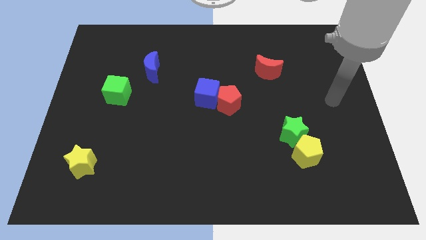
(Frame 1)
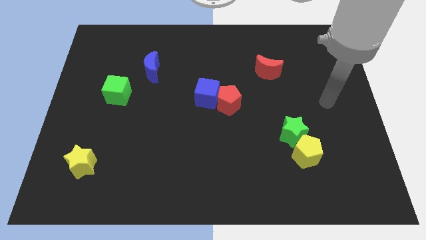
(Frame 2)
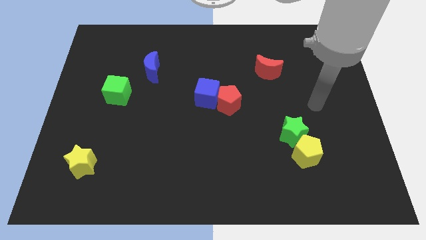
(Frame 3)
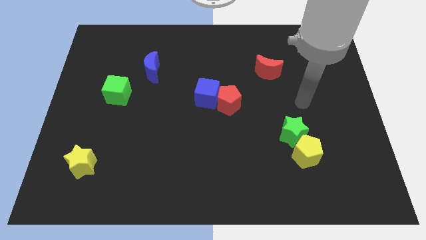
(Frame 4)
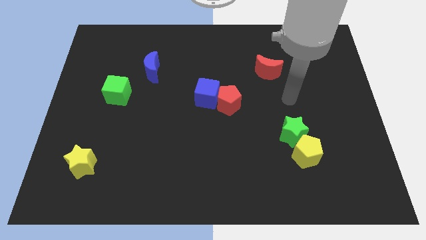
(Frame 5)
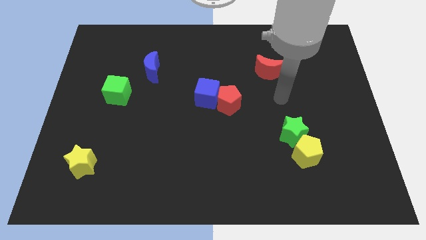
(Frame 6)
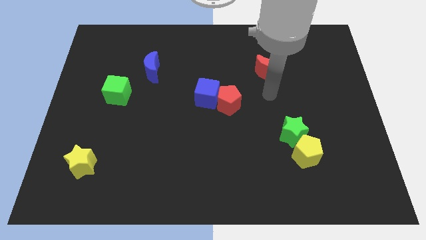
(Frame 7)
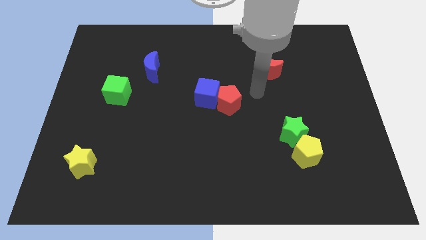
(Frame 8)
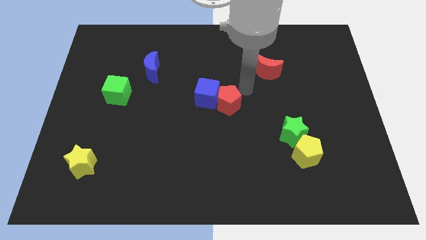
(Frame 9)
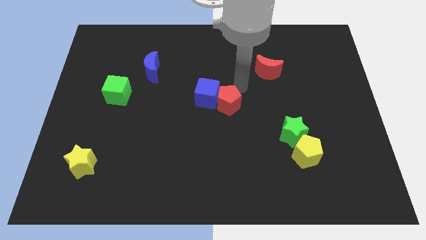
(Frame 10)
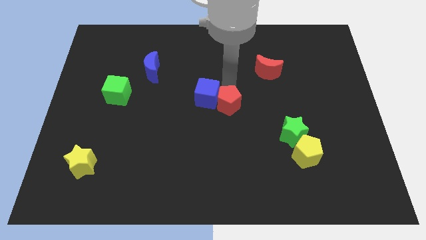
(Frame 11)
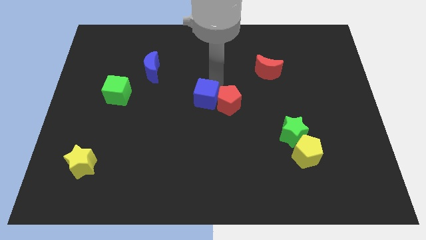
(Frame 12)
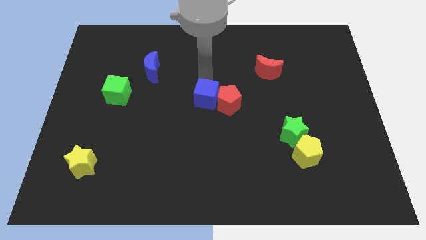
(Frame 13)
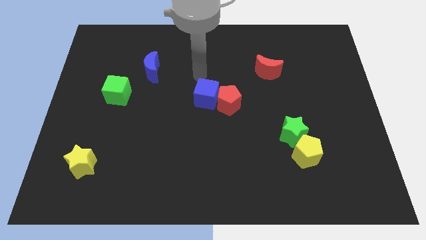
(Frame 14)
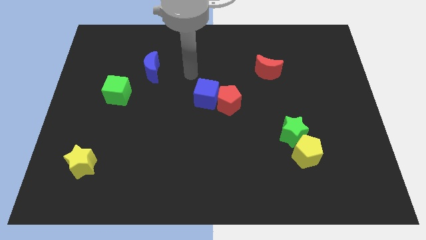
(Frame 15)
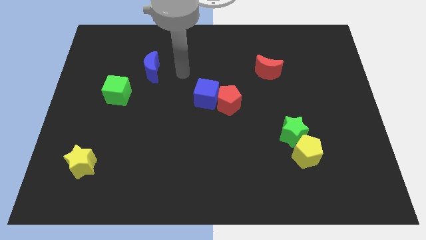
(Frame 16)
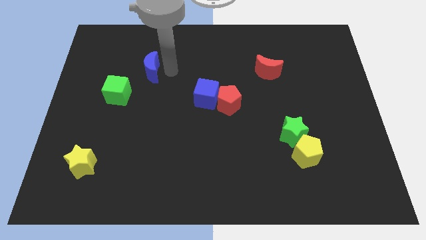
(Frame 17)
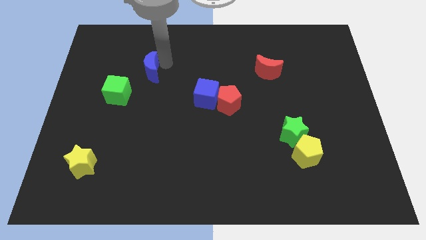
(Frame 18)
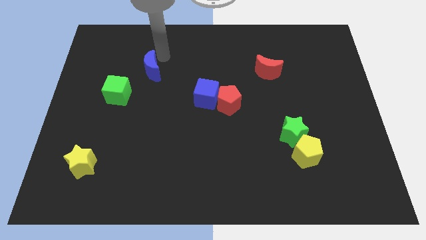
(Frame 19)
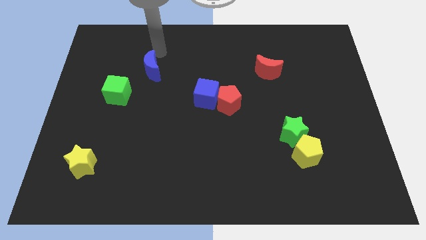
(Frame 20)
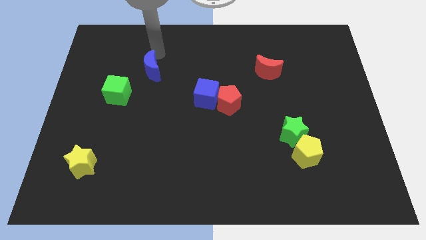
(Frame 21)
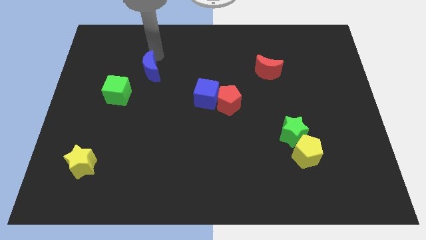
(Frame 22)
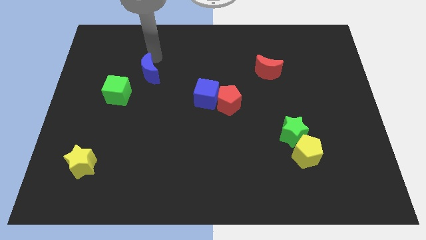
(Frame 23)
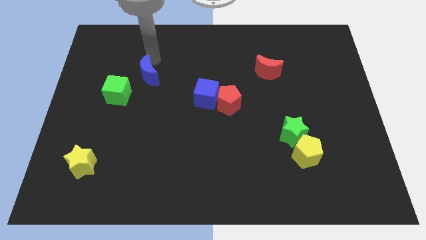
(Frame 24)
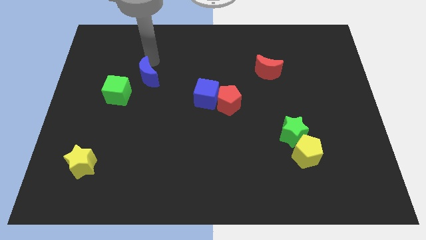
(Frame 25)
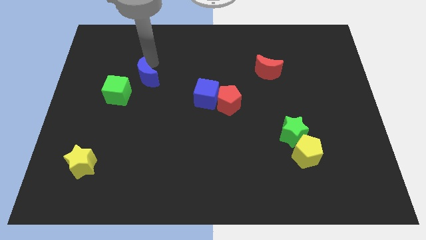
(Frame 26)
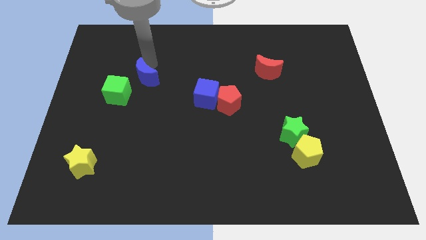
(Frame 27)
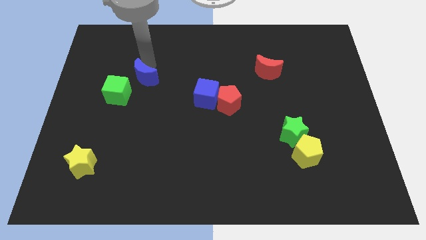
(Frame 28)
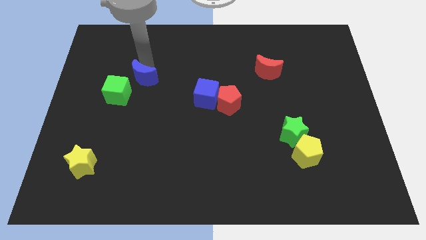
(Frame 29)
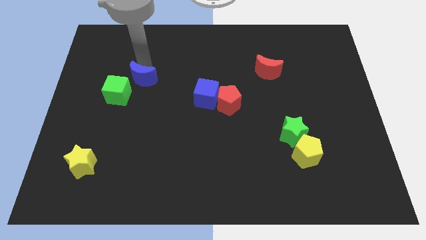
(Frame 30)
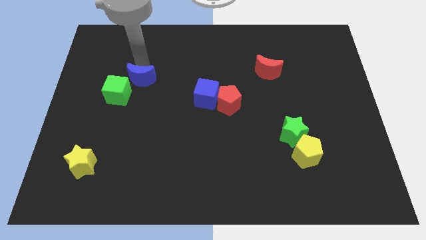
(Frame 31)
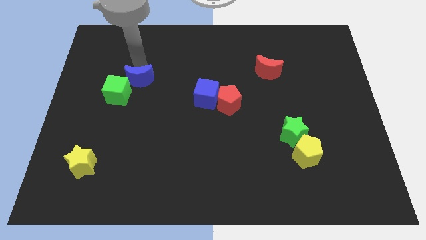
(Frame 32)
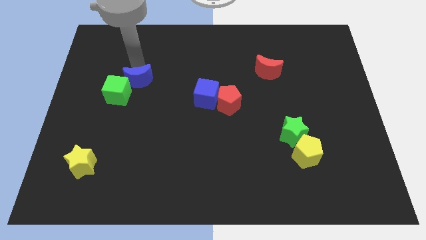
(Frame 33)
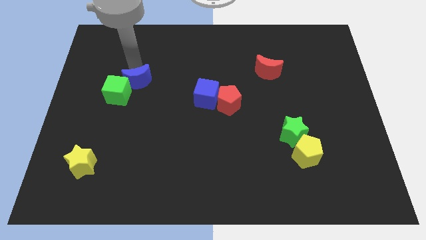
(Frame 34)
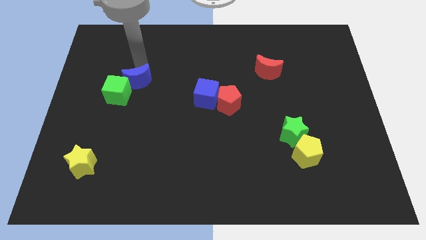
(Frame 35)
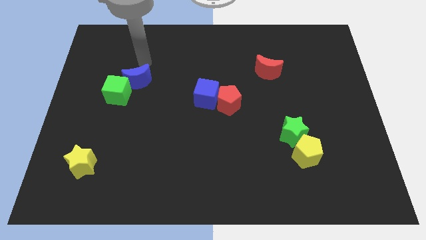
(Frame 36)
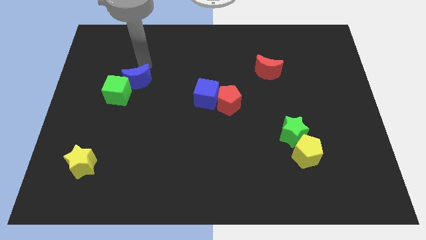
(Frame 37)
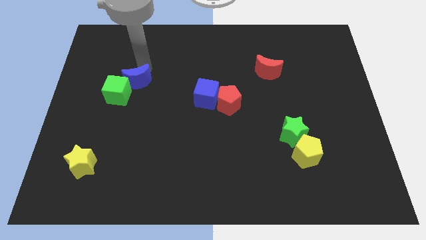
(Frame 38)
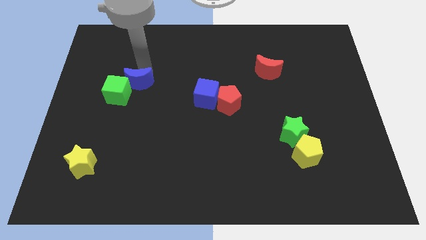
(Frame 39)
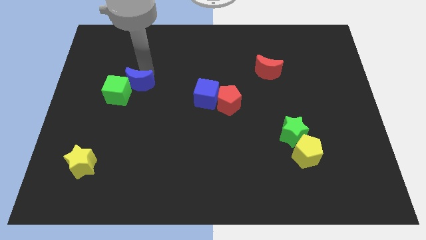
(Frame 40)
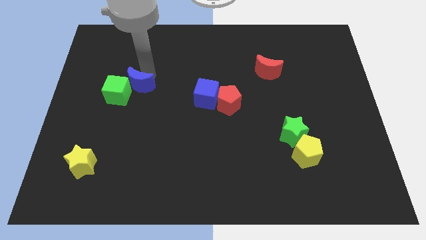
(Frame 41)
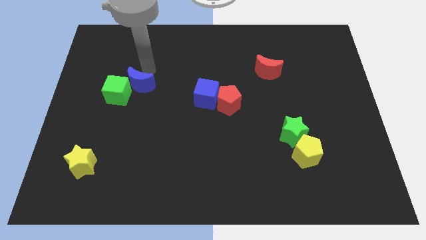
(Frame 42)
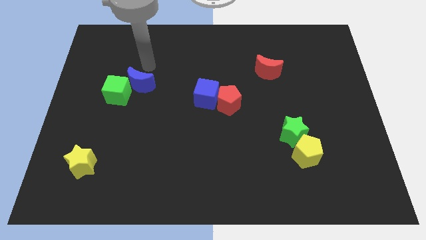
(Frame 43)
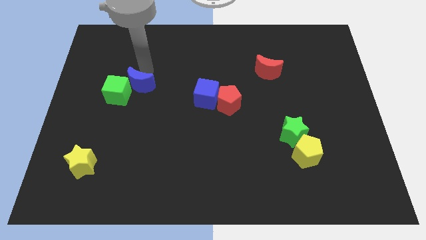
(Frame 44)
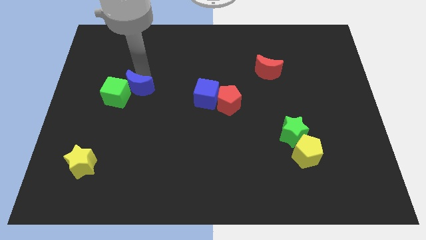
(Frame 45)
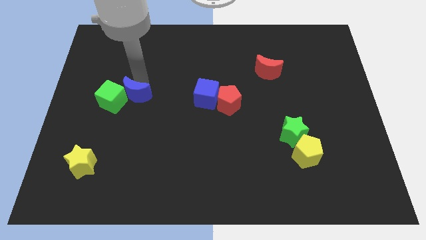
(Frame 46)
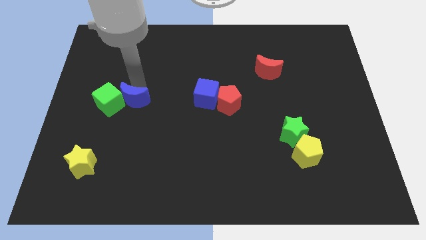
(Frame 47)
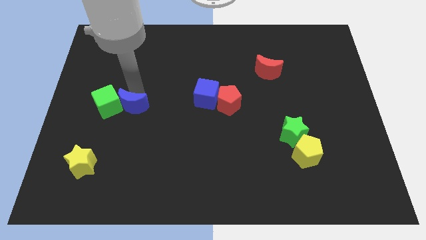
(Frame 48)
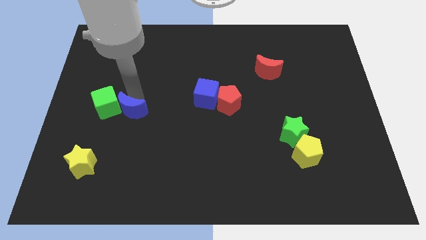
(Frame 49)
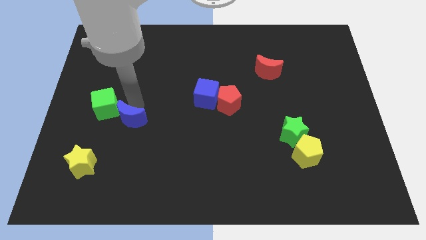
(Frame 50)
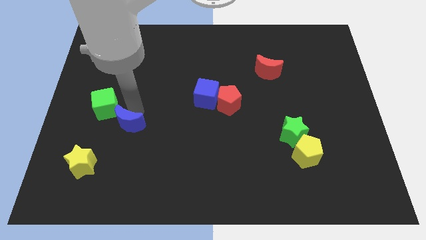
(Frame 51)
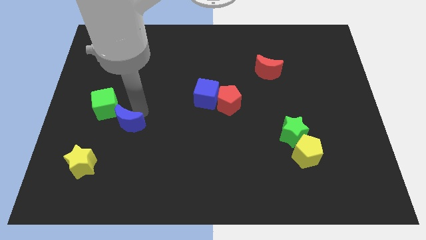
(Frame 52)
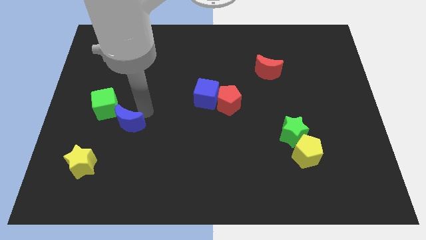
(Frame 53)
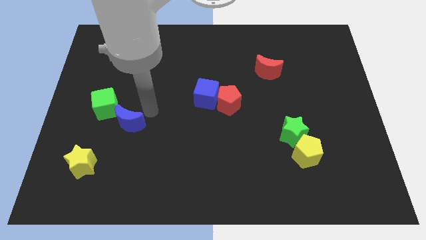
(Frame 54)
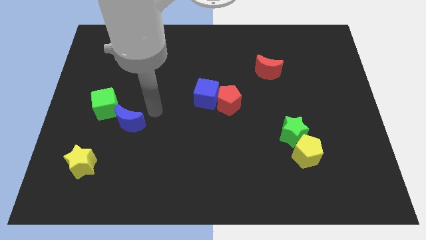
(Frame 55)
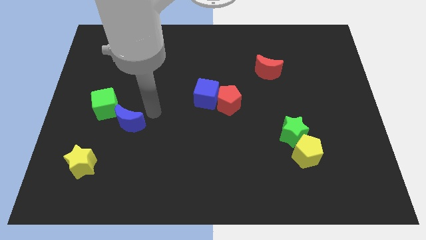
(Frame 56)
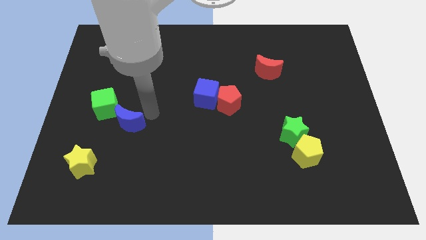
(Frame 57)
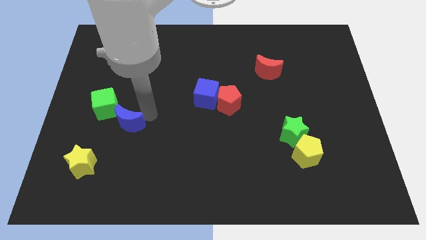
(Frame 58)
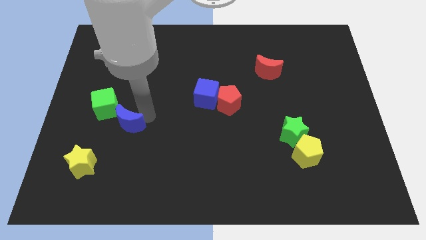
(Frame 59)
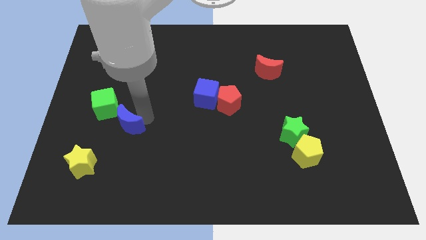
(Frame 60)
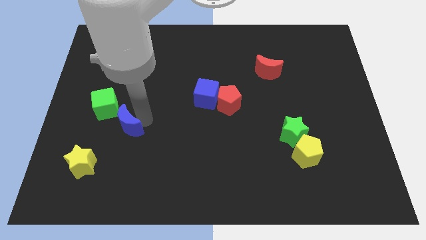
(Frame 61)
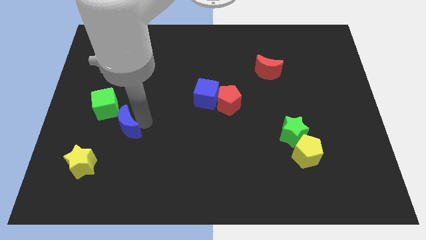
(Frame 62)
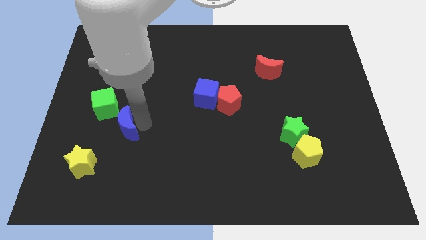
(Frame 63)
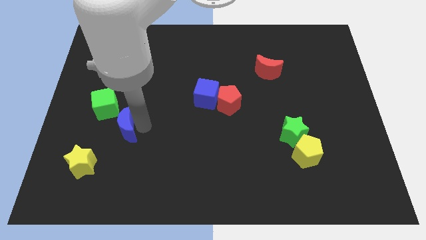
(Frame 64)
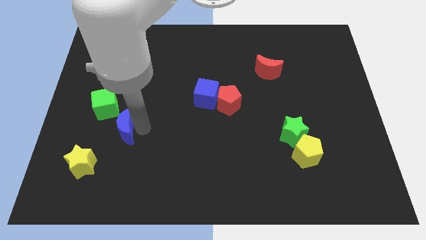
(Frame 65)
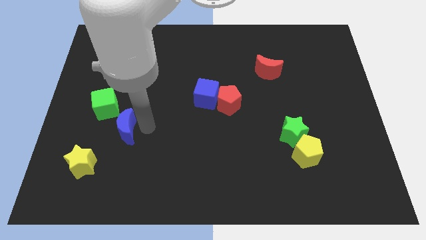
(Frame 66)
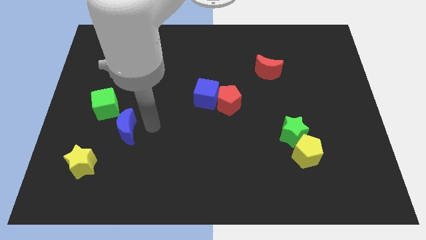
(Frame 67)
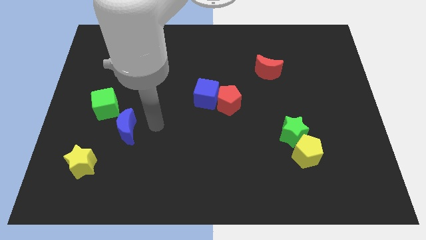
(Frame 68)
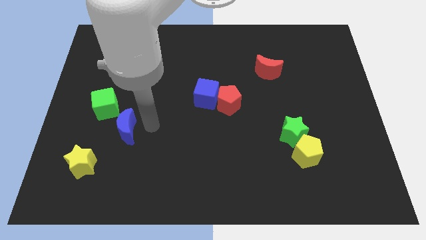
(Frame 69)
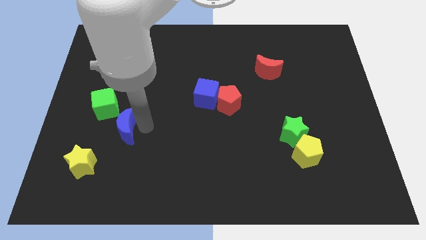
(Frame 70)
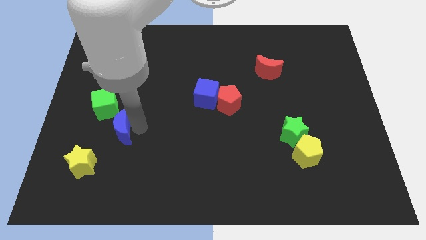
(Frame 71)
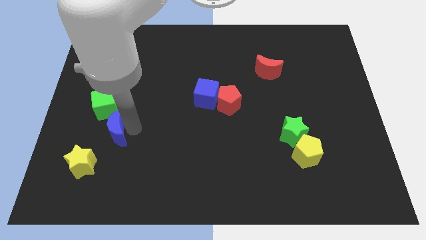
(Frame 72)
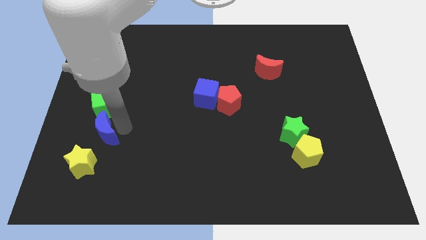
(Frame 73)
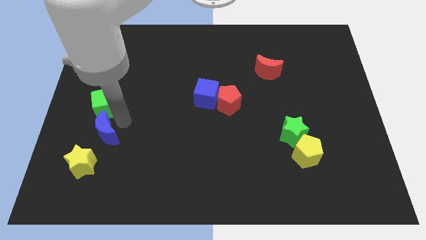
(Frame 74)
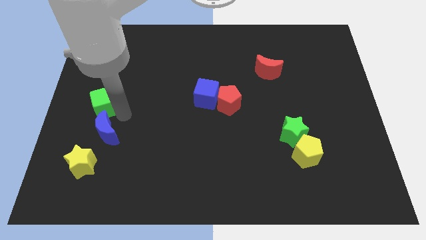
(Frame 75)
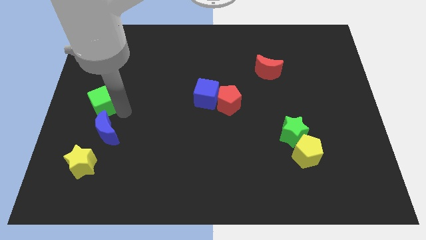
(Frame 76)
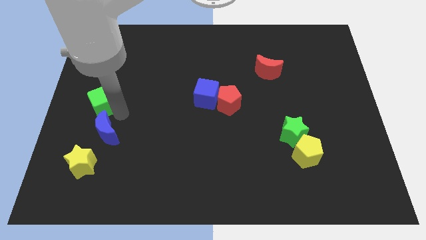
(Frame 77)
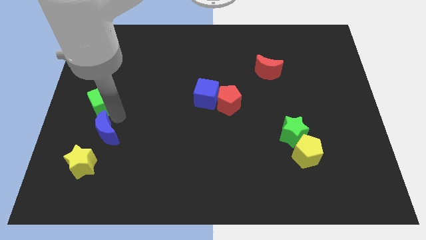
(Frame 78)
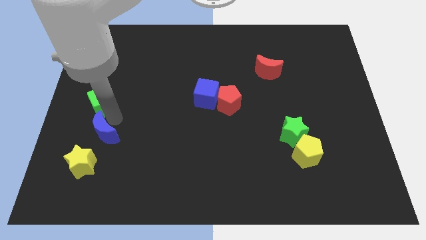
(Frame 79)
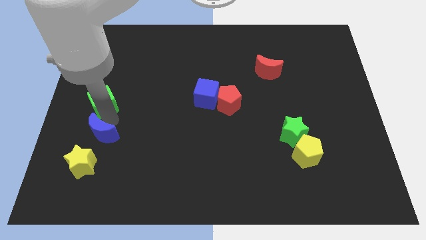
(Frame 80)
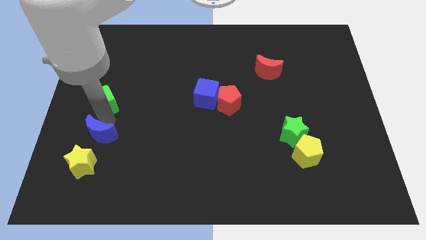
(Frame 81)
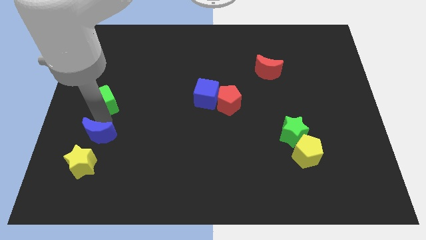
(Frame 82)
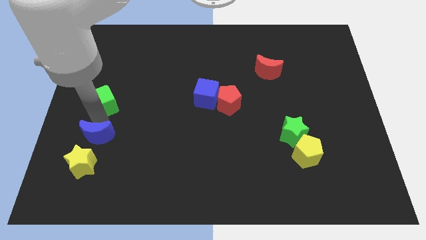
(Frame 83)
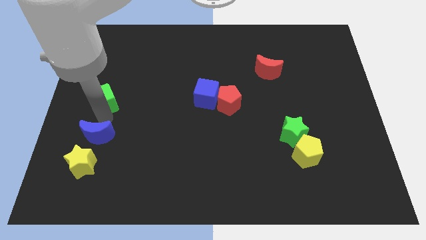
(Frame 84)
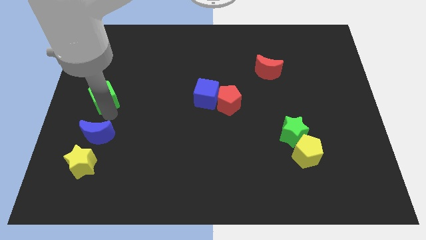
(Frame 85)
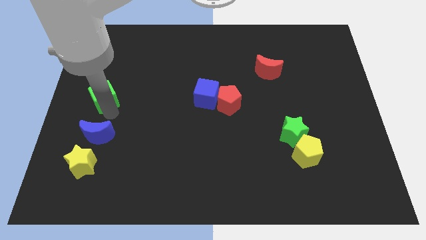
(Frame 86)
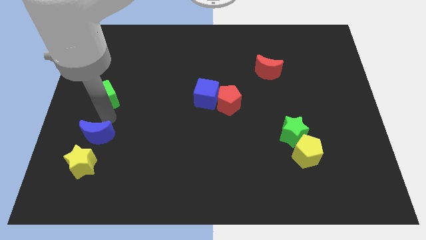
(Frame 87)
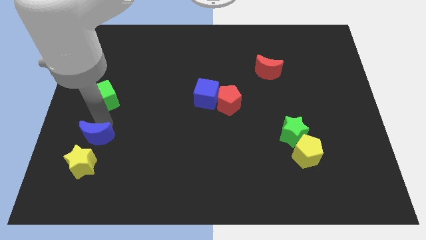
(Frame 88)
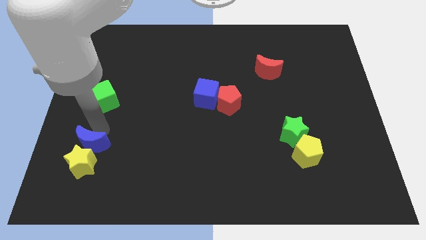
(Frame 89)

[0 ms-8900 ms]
slide the blue moon next to the yellow star
